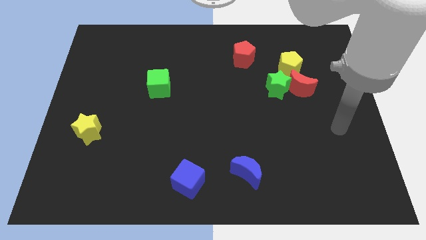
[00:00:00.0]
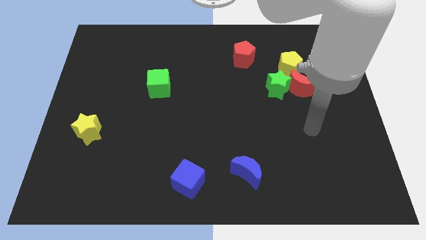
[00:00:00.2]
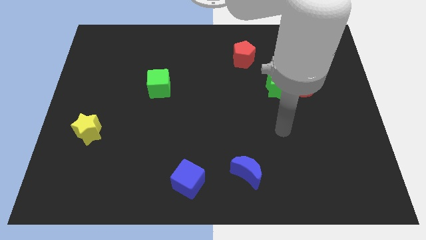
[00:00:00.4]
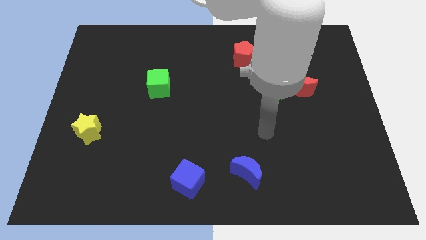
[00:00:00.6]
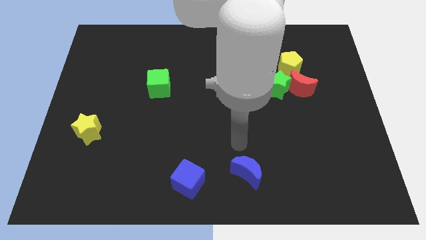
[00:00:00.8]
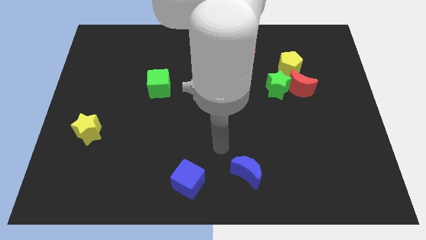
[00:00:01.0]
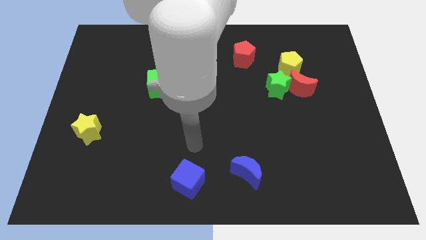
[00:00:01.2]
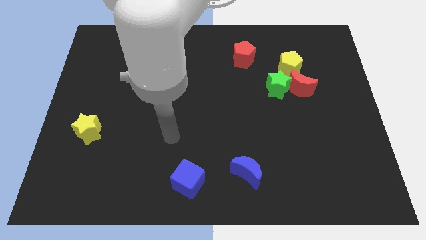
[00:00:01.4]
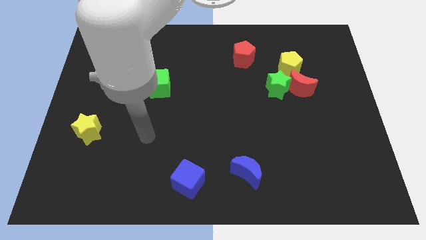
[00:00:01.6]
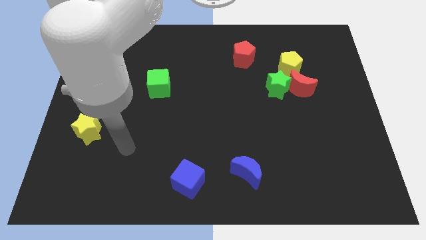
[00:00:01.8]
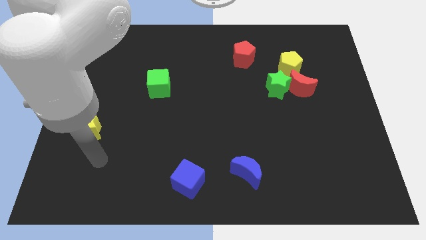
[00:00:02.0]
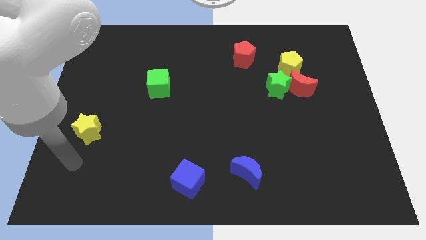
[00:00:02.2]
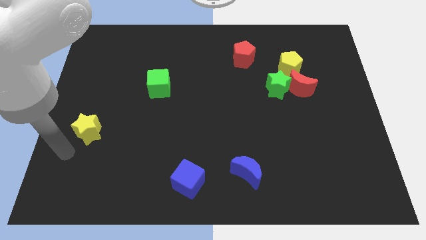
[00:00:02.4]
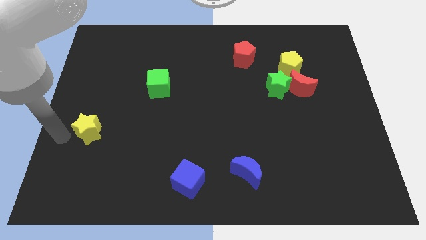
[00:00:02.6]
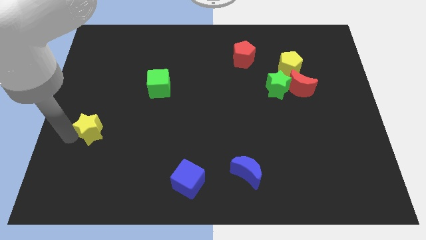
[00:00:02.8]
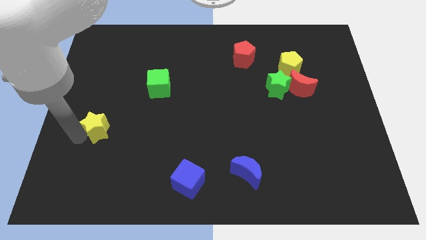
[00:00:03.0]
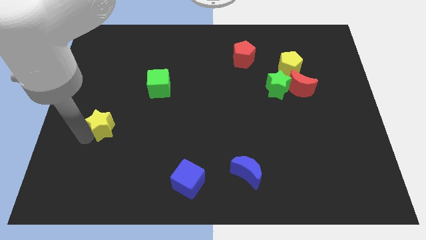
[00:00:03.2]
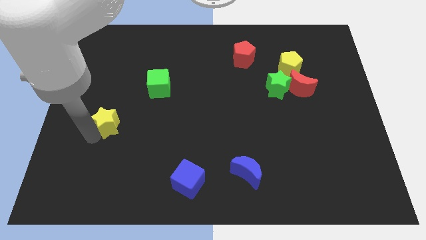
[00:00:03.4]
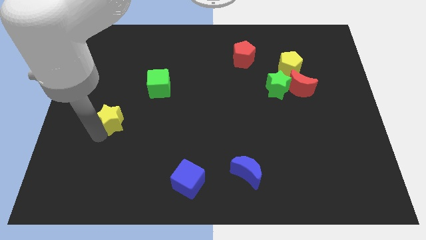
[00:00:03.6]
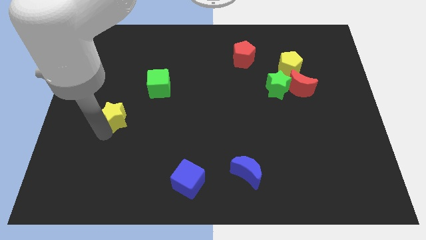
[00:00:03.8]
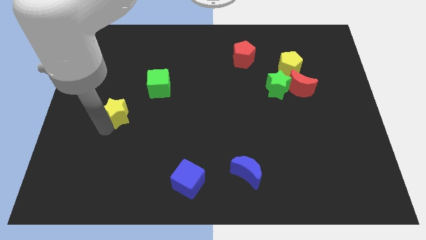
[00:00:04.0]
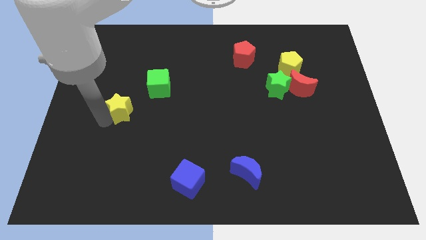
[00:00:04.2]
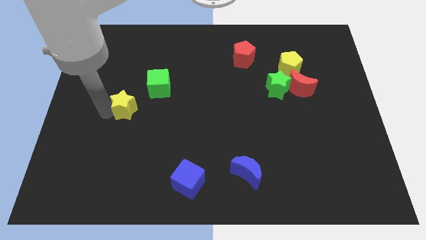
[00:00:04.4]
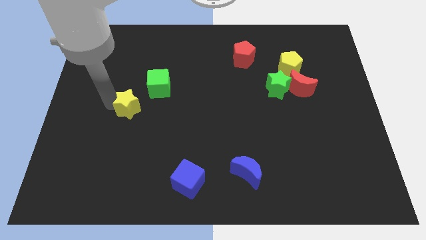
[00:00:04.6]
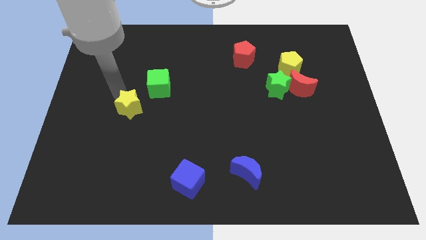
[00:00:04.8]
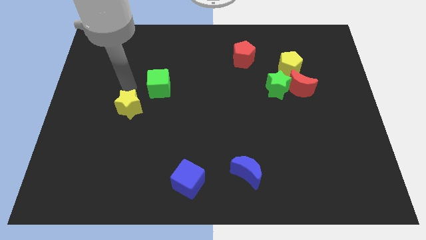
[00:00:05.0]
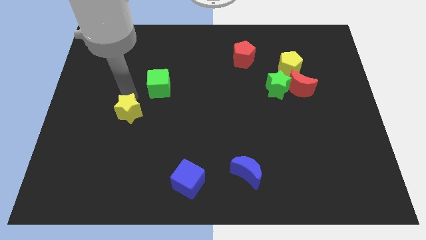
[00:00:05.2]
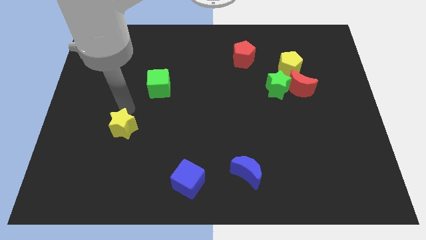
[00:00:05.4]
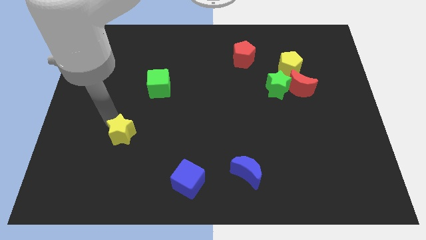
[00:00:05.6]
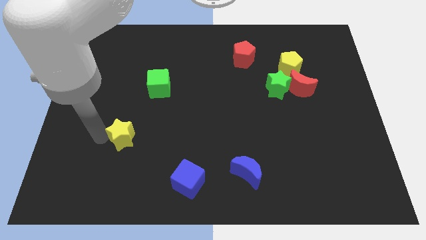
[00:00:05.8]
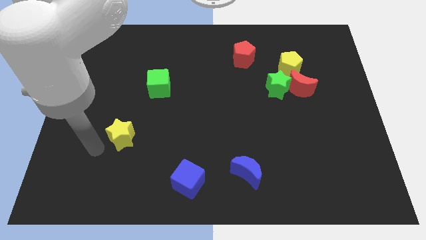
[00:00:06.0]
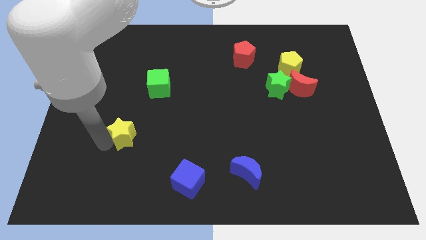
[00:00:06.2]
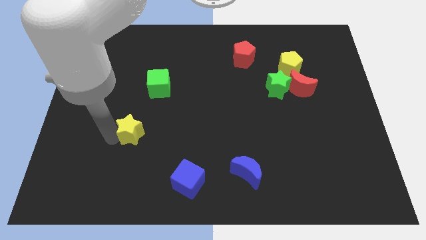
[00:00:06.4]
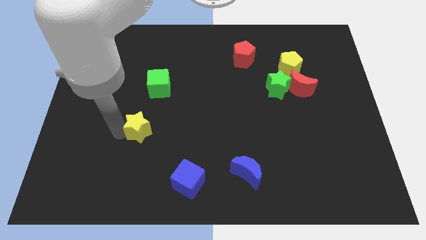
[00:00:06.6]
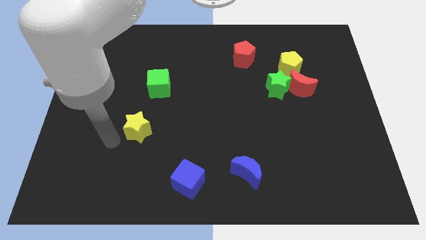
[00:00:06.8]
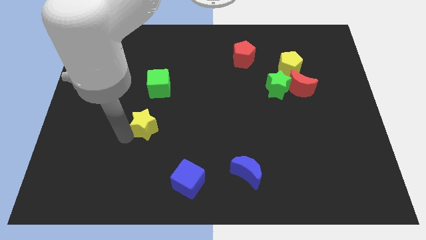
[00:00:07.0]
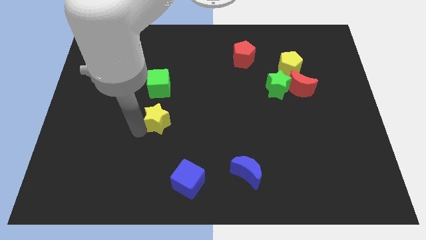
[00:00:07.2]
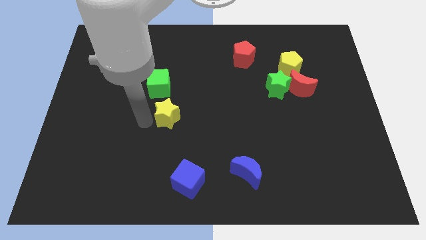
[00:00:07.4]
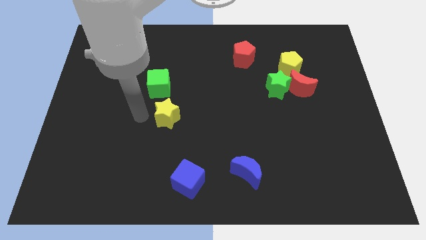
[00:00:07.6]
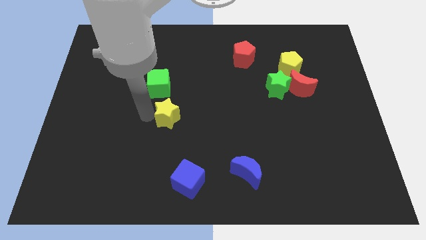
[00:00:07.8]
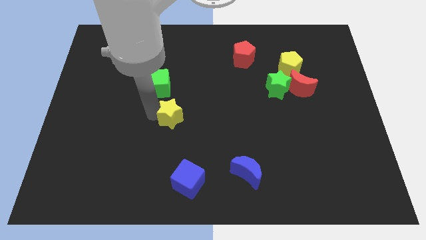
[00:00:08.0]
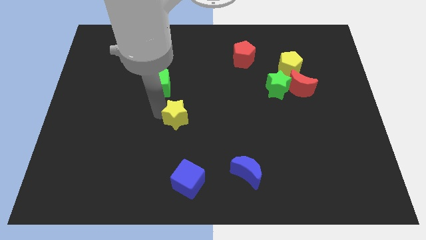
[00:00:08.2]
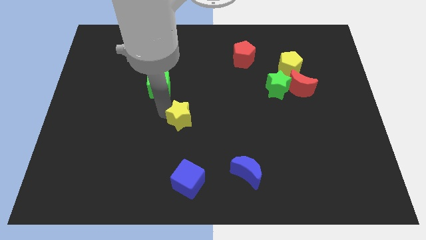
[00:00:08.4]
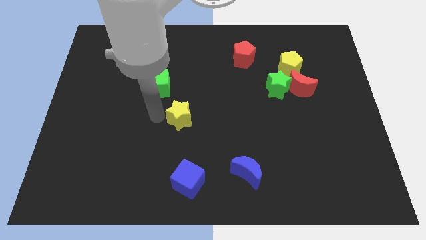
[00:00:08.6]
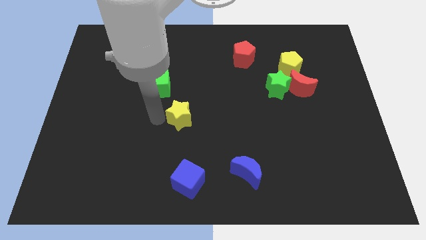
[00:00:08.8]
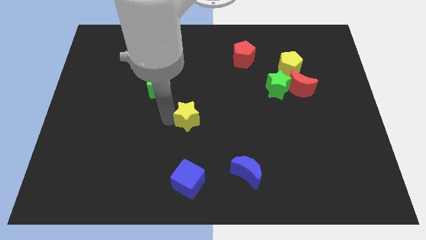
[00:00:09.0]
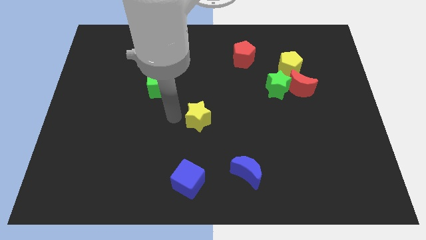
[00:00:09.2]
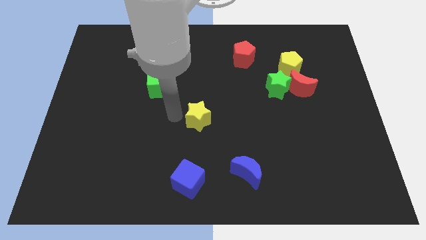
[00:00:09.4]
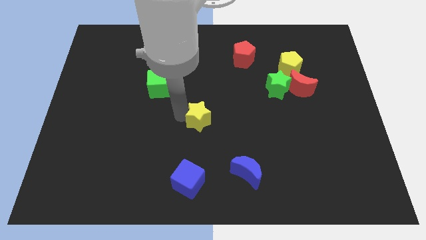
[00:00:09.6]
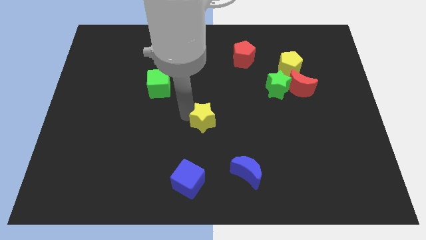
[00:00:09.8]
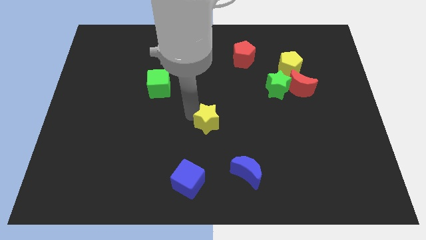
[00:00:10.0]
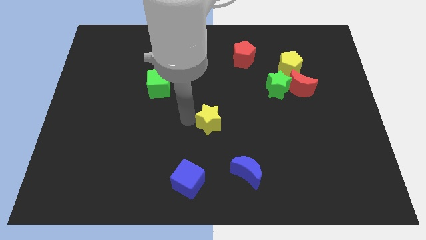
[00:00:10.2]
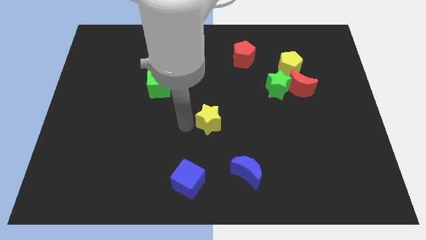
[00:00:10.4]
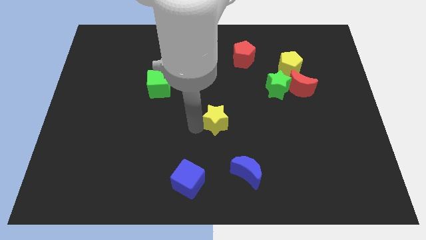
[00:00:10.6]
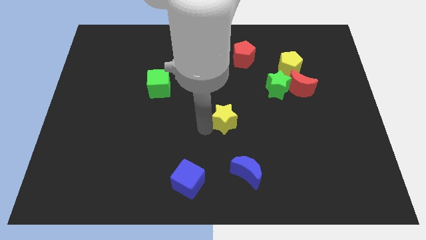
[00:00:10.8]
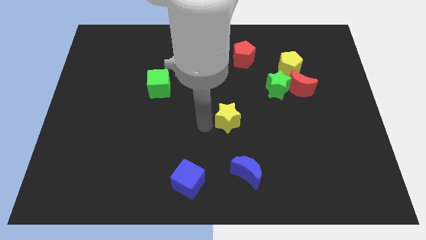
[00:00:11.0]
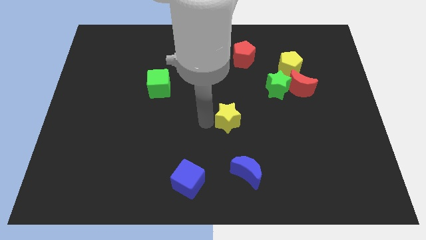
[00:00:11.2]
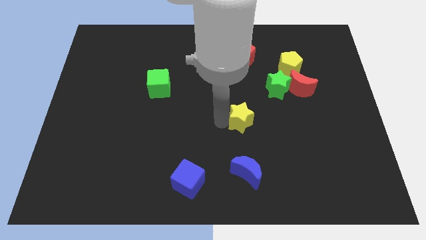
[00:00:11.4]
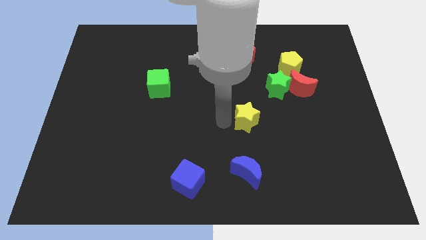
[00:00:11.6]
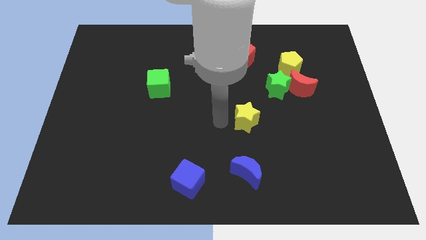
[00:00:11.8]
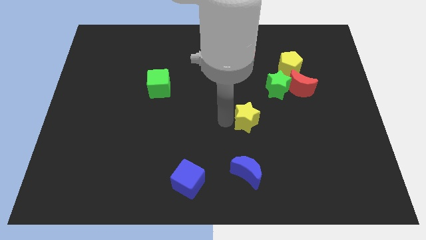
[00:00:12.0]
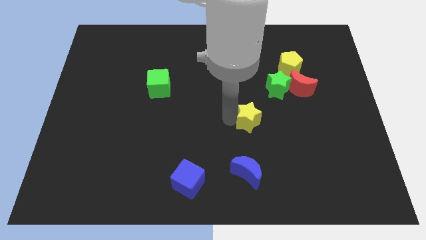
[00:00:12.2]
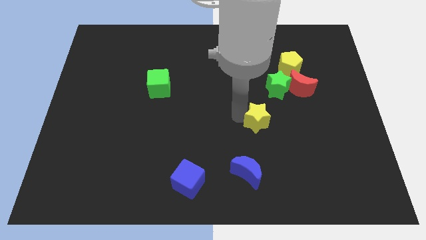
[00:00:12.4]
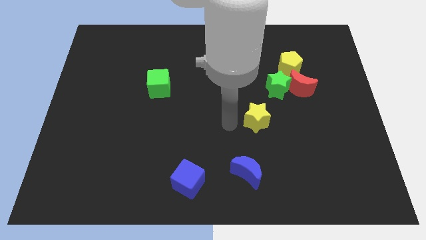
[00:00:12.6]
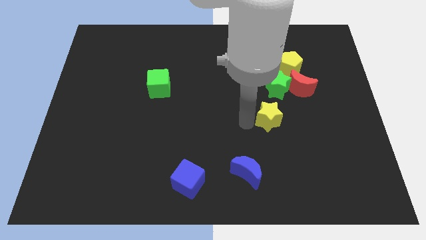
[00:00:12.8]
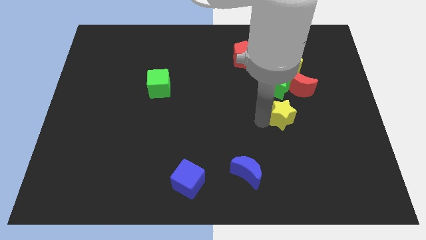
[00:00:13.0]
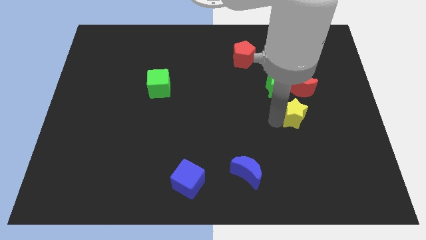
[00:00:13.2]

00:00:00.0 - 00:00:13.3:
push the yellow star to the bottom right of the green star
